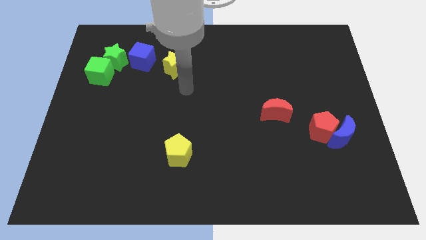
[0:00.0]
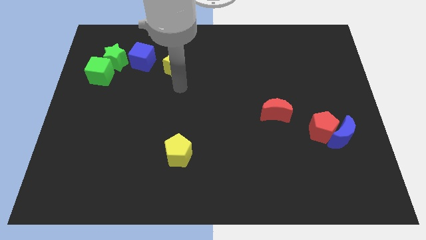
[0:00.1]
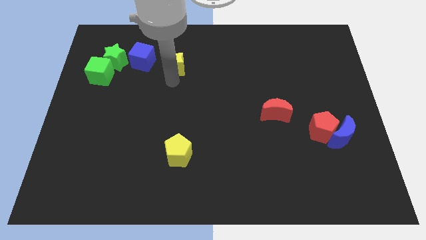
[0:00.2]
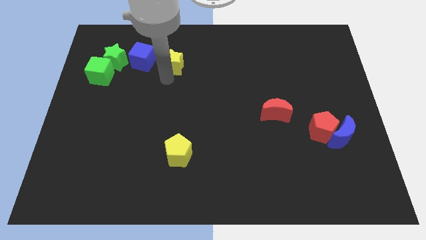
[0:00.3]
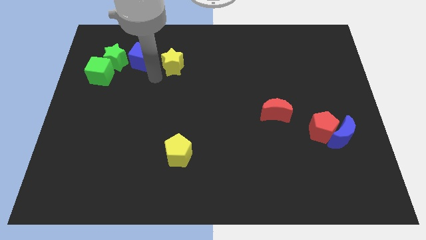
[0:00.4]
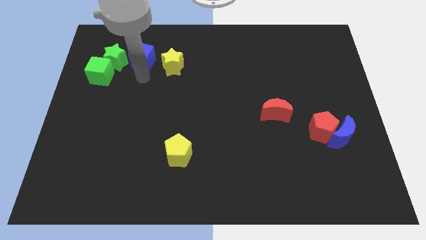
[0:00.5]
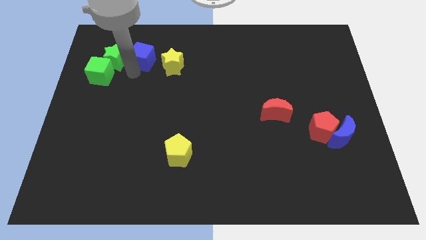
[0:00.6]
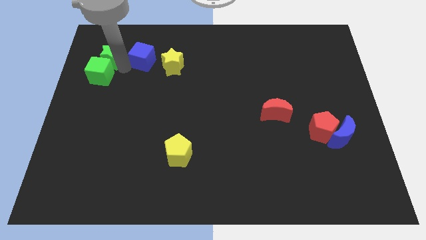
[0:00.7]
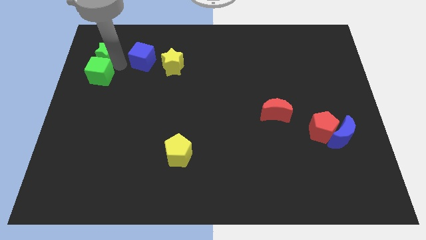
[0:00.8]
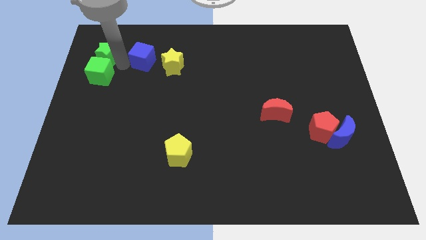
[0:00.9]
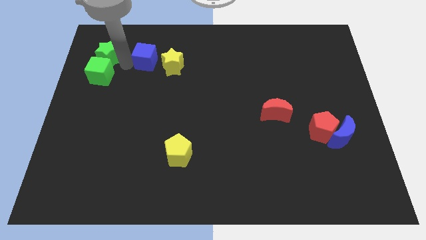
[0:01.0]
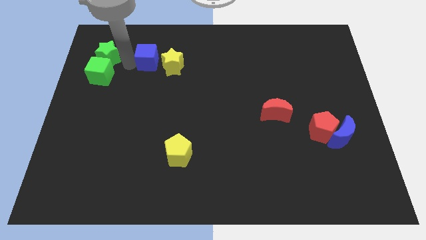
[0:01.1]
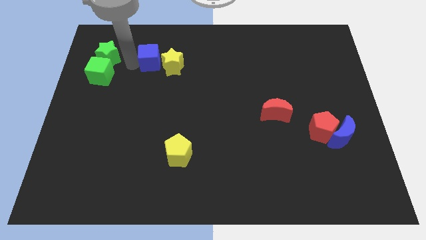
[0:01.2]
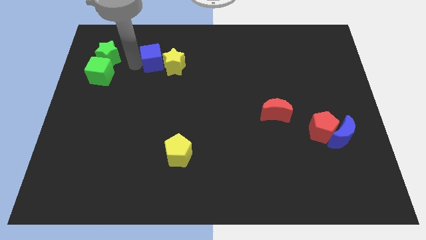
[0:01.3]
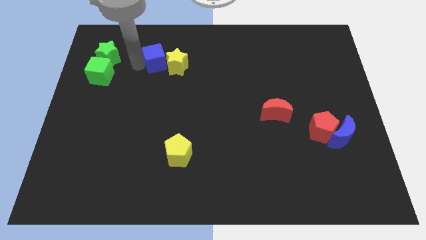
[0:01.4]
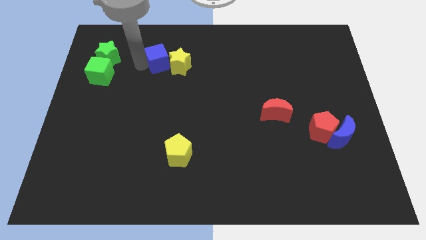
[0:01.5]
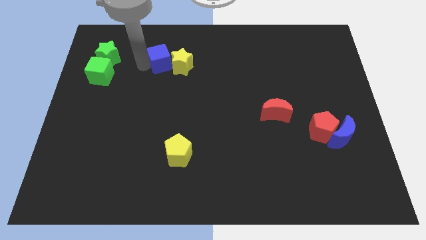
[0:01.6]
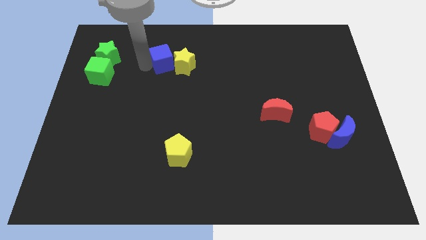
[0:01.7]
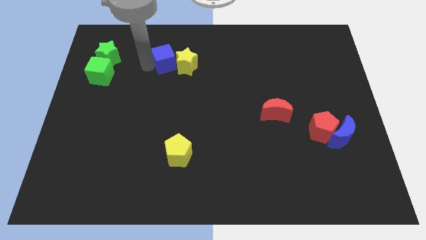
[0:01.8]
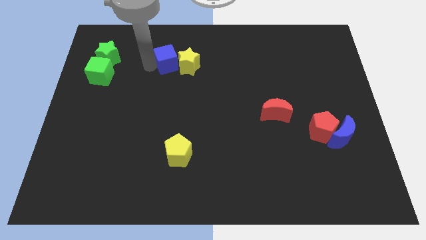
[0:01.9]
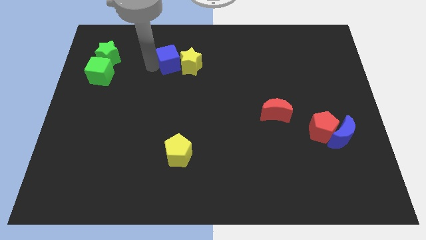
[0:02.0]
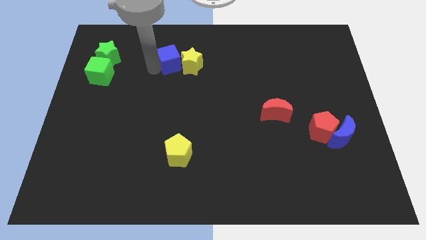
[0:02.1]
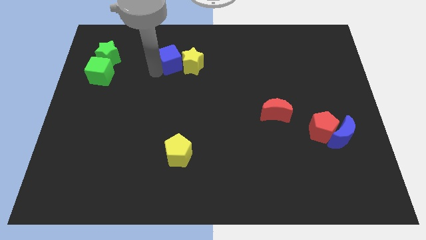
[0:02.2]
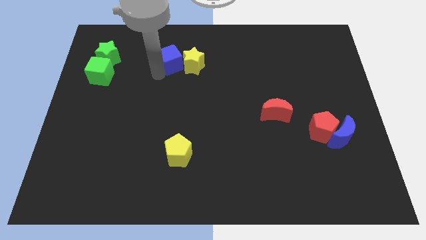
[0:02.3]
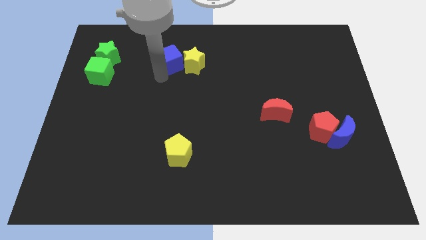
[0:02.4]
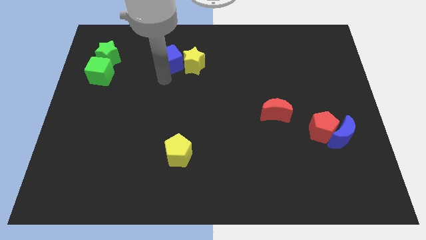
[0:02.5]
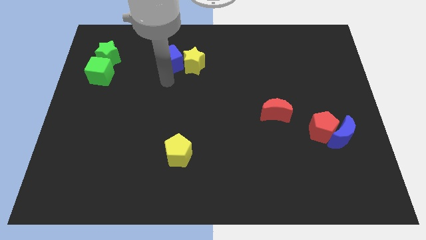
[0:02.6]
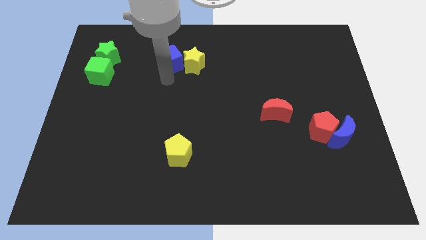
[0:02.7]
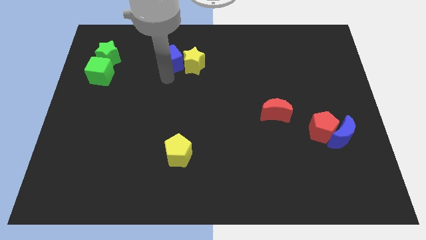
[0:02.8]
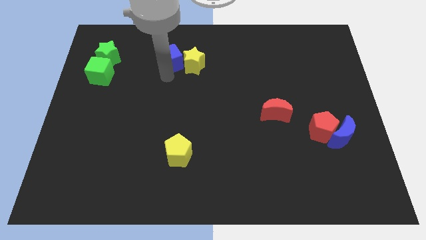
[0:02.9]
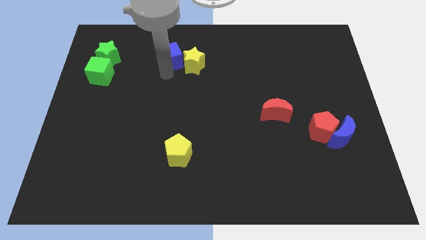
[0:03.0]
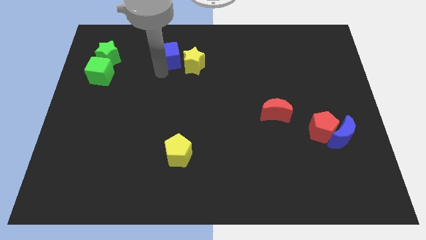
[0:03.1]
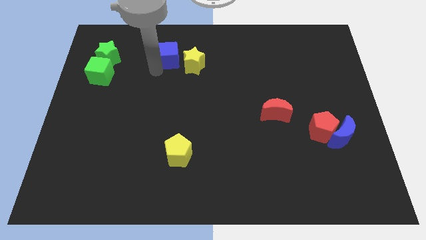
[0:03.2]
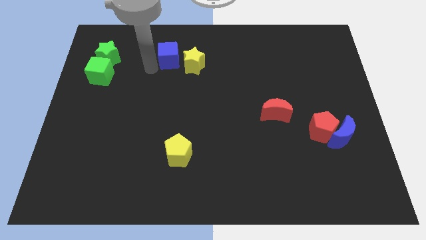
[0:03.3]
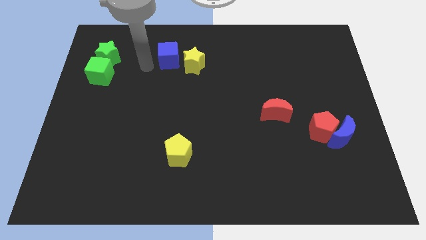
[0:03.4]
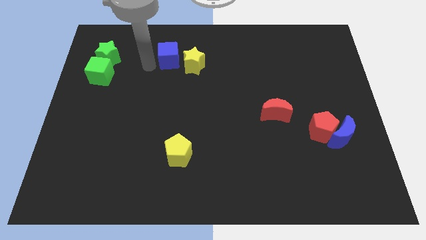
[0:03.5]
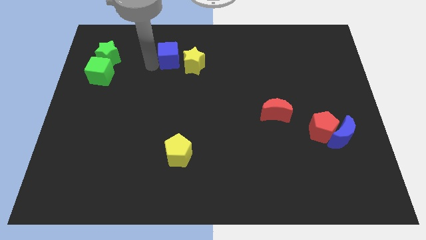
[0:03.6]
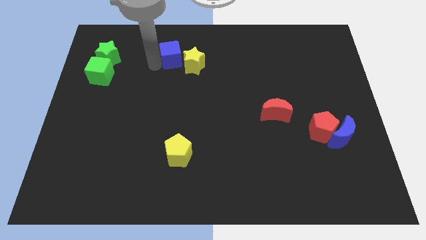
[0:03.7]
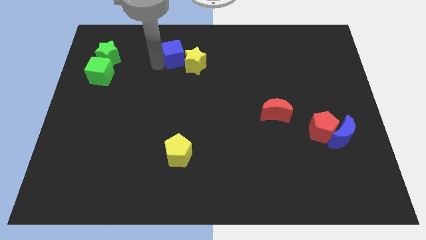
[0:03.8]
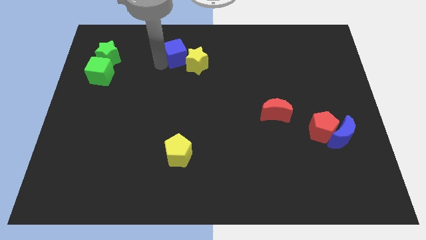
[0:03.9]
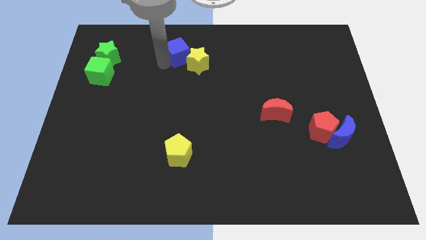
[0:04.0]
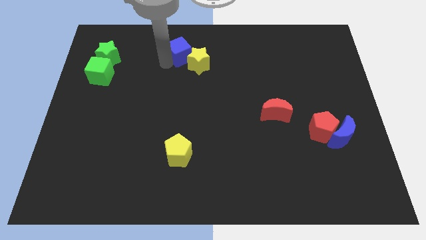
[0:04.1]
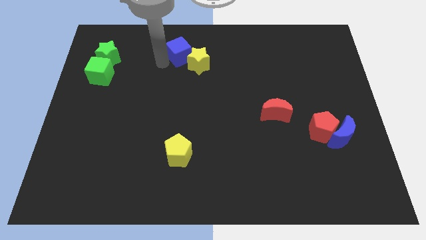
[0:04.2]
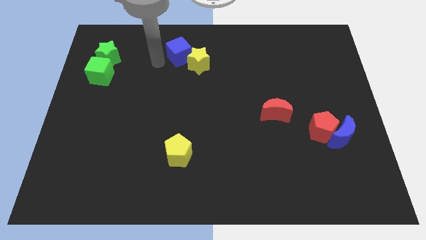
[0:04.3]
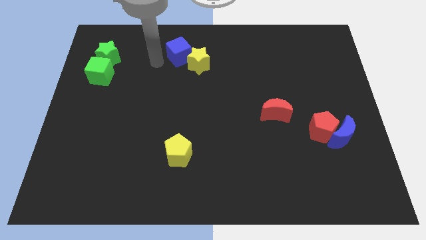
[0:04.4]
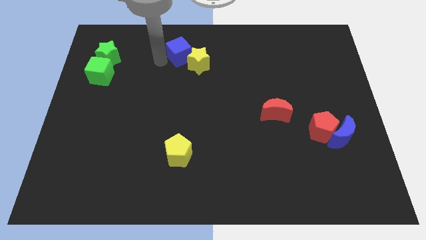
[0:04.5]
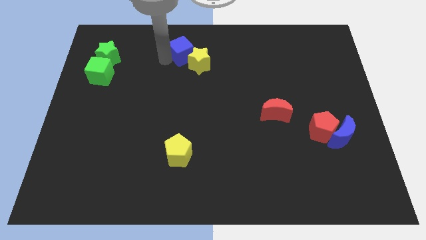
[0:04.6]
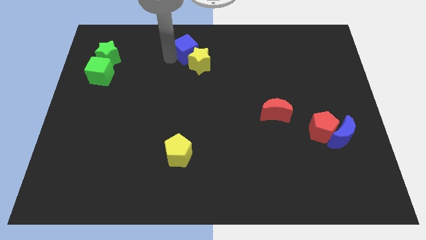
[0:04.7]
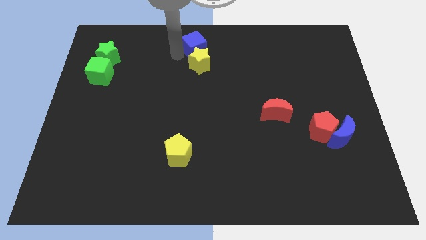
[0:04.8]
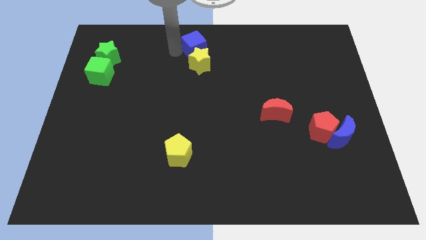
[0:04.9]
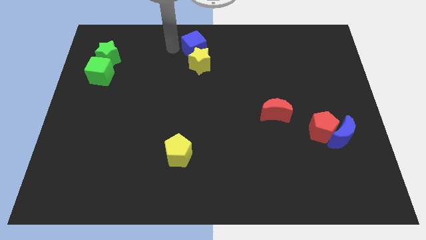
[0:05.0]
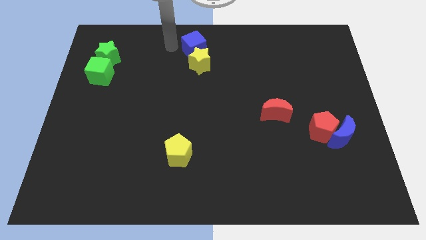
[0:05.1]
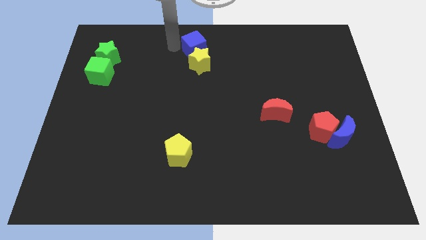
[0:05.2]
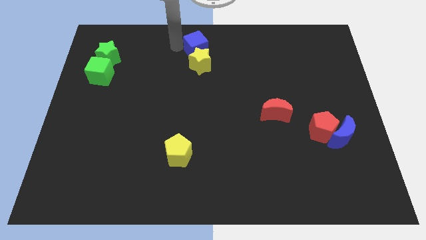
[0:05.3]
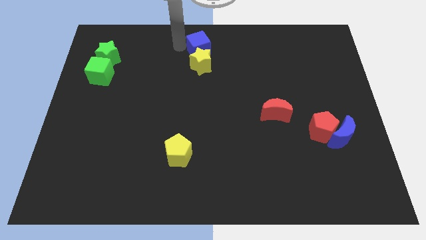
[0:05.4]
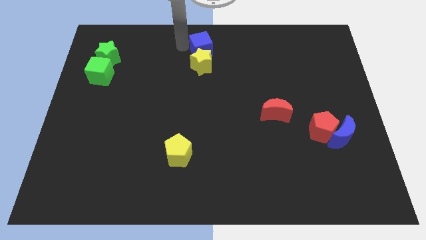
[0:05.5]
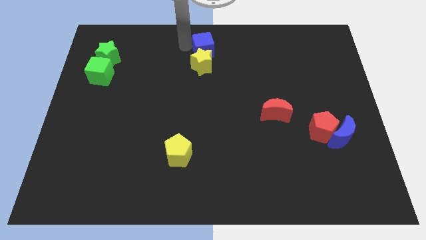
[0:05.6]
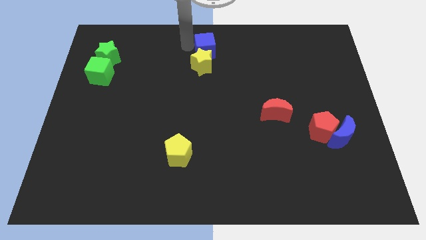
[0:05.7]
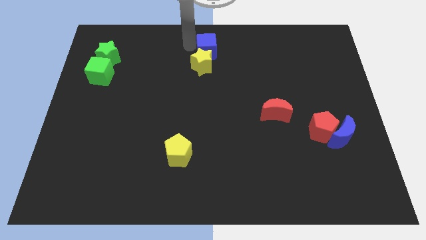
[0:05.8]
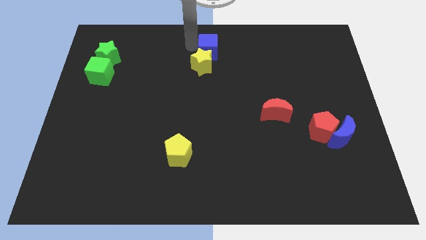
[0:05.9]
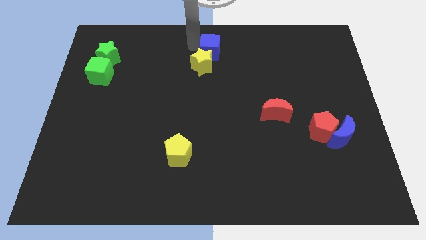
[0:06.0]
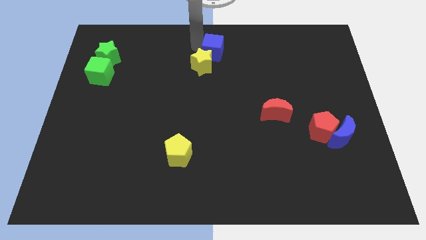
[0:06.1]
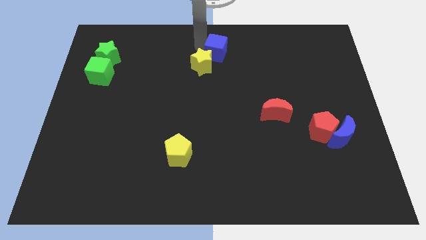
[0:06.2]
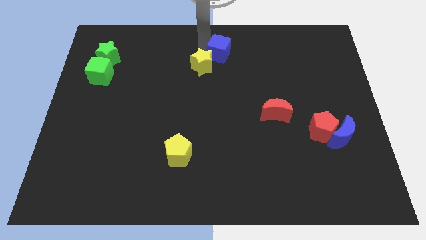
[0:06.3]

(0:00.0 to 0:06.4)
move the blue cube to the right

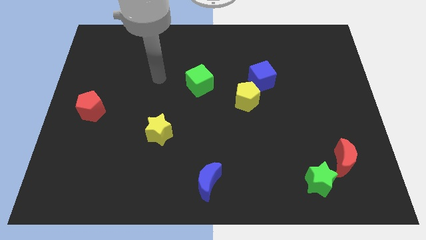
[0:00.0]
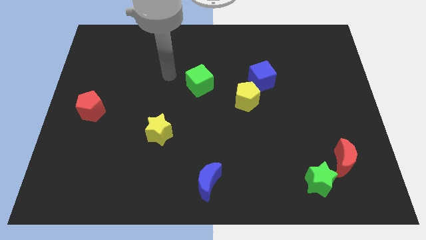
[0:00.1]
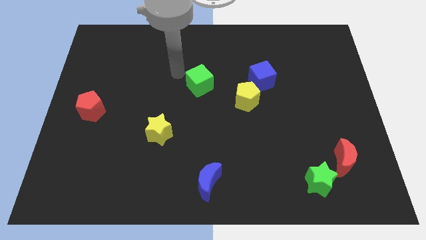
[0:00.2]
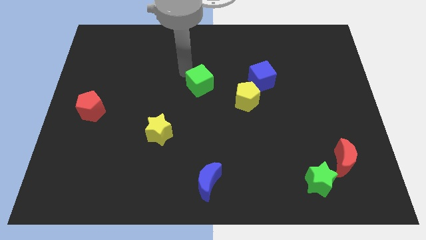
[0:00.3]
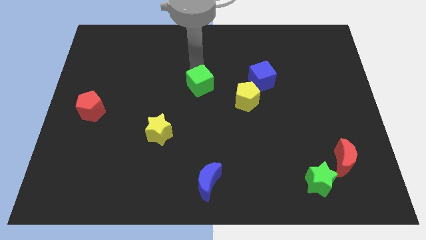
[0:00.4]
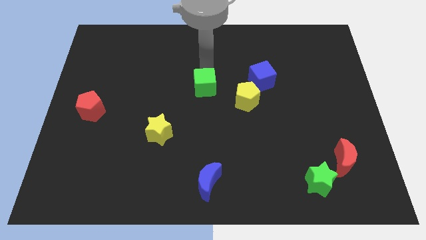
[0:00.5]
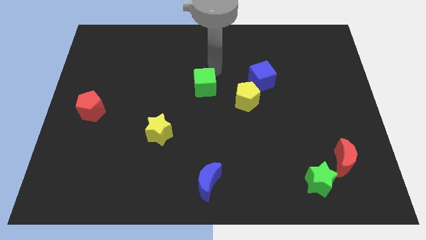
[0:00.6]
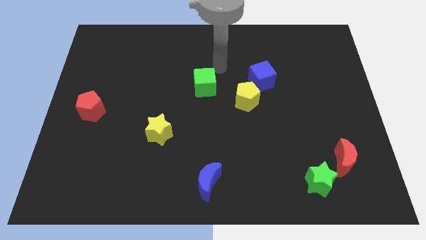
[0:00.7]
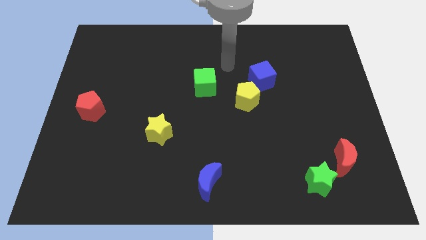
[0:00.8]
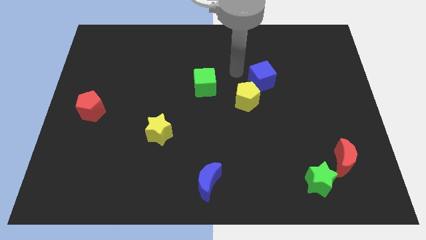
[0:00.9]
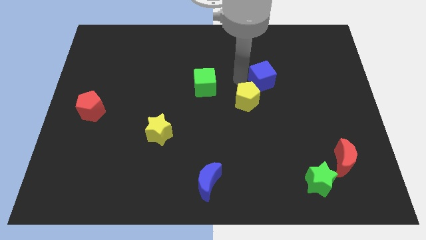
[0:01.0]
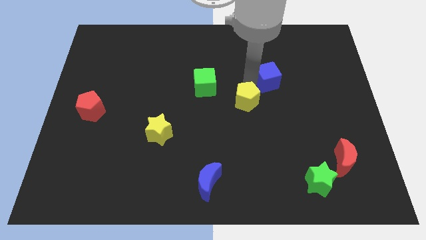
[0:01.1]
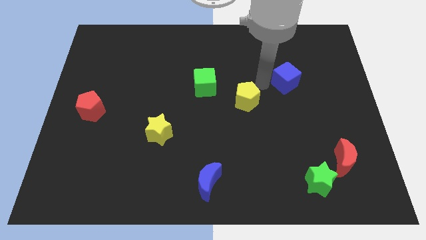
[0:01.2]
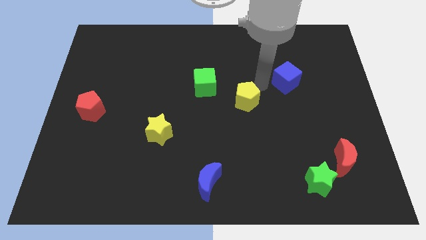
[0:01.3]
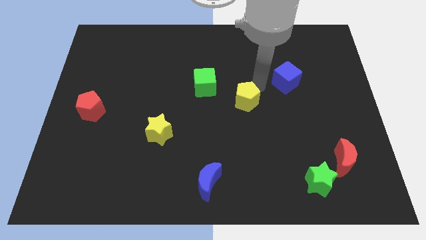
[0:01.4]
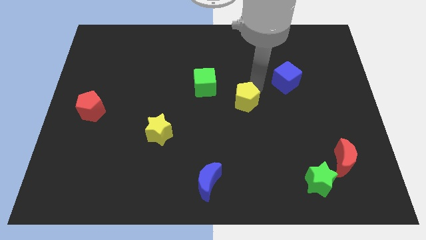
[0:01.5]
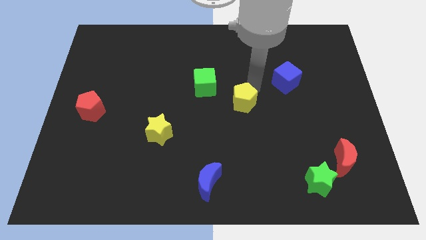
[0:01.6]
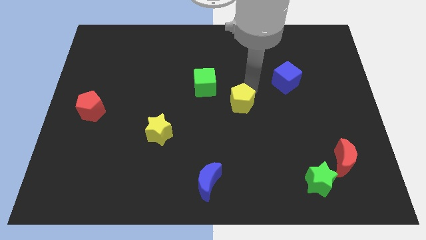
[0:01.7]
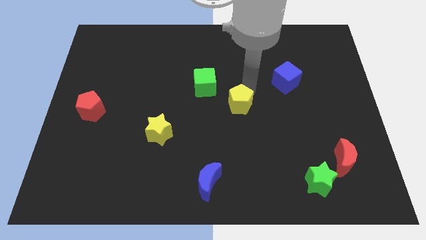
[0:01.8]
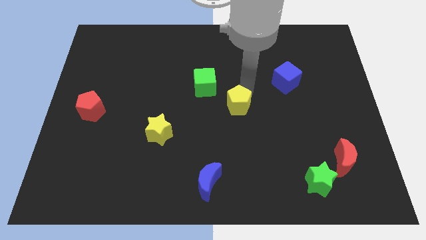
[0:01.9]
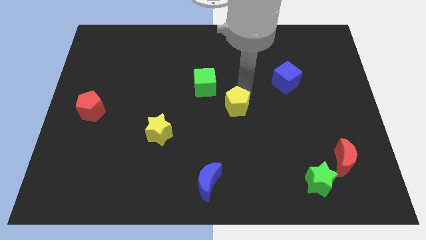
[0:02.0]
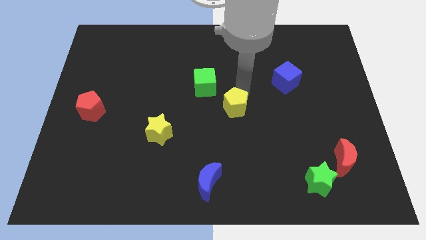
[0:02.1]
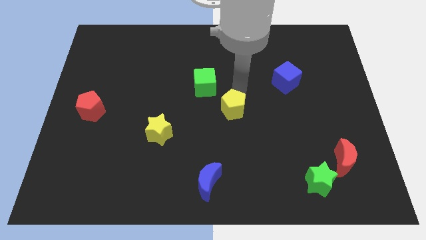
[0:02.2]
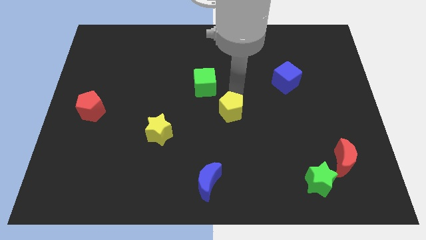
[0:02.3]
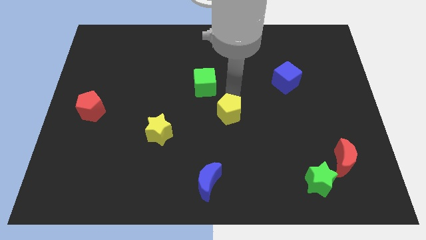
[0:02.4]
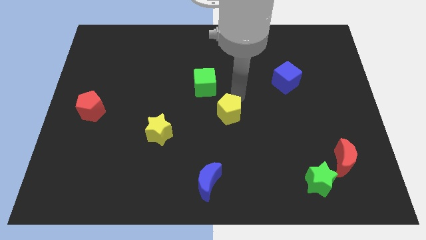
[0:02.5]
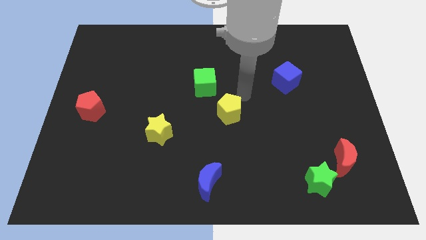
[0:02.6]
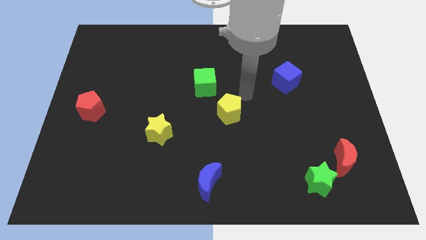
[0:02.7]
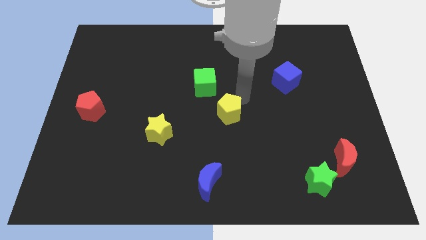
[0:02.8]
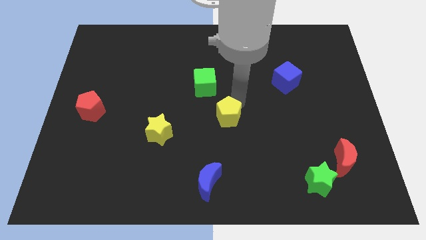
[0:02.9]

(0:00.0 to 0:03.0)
move the yellow pentagon somewhat down and left diagonally
